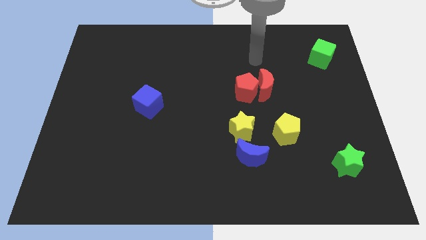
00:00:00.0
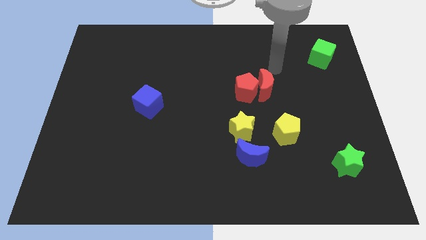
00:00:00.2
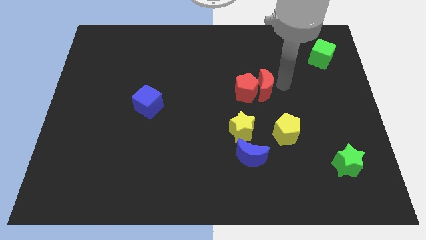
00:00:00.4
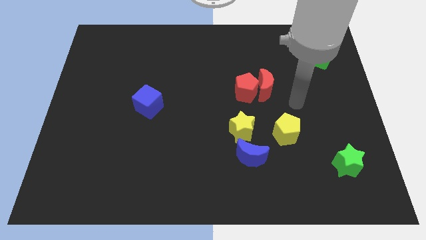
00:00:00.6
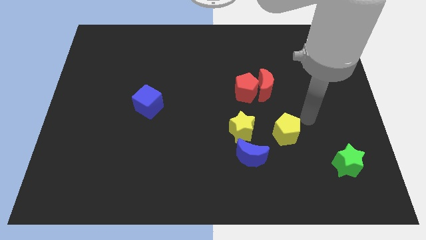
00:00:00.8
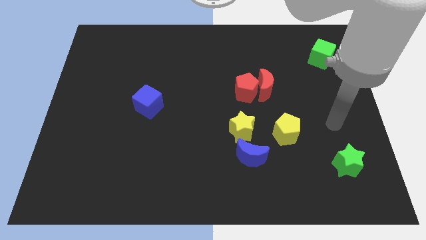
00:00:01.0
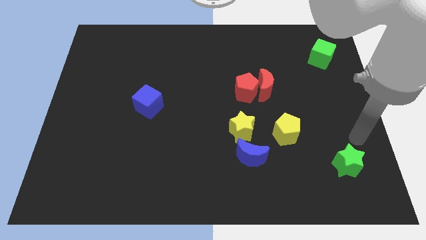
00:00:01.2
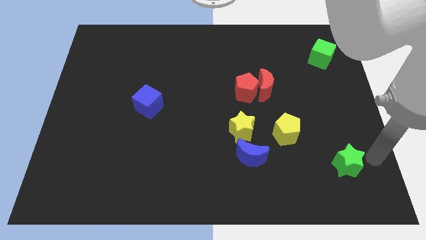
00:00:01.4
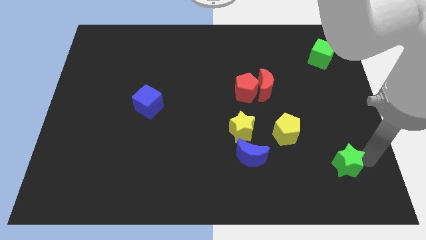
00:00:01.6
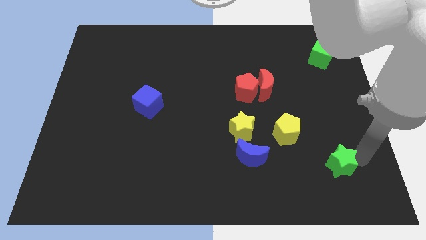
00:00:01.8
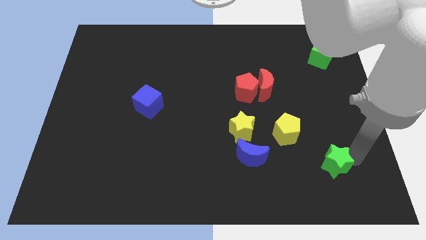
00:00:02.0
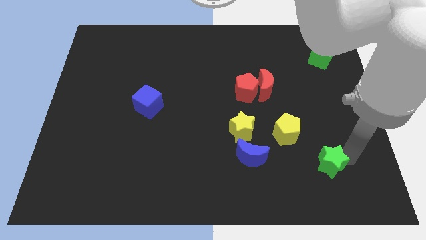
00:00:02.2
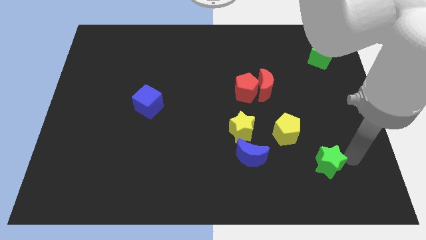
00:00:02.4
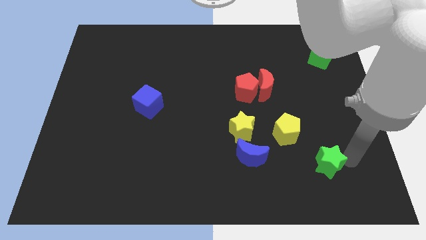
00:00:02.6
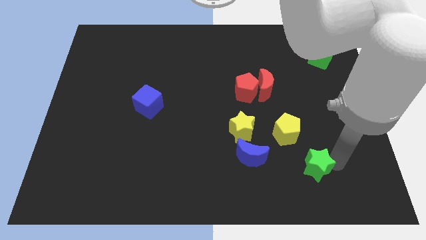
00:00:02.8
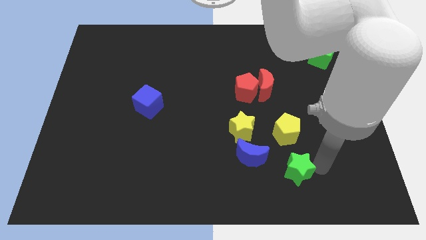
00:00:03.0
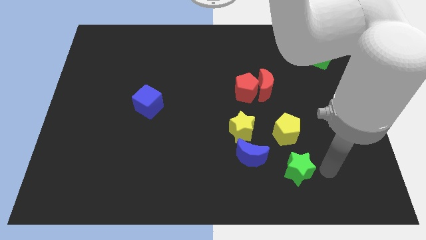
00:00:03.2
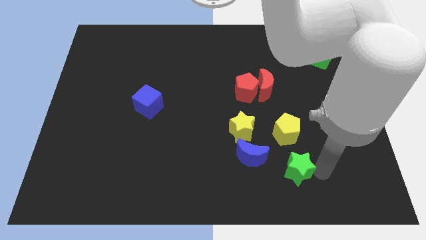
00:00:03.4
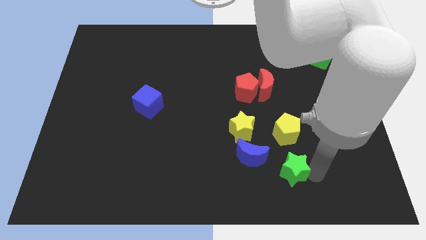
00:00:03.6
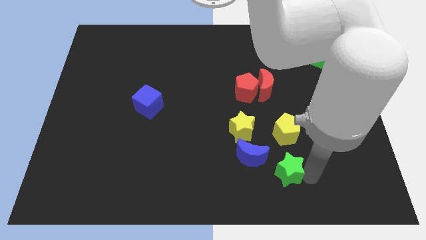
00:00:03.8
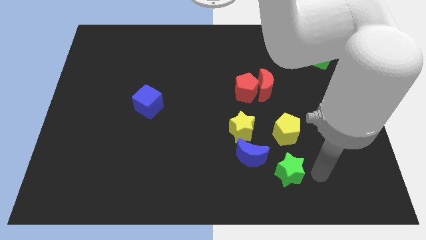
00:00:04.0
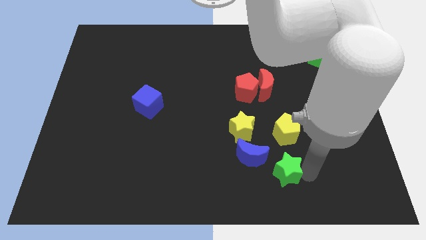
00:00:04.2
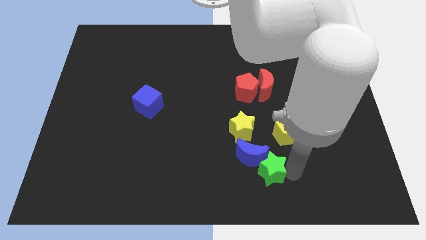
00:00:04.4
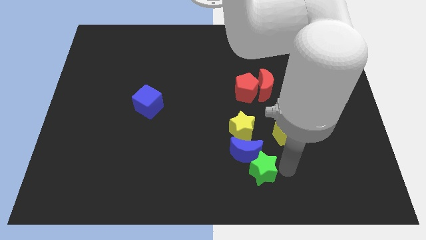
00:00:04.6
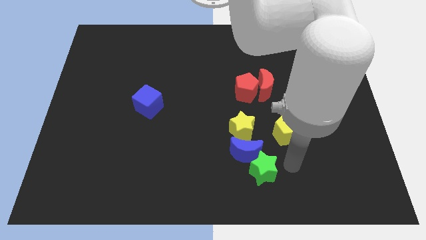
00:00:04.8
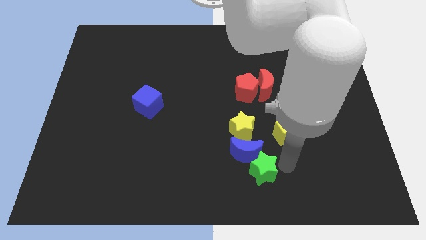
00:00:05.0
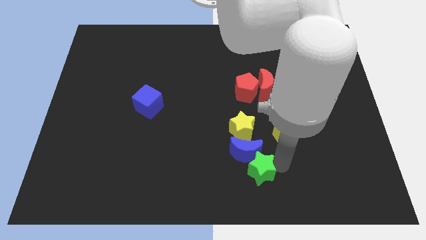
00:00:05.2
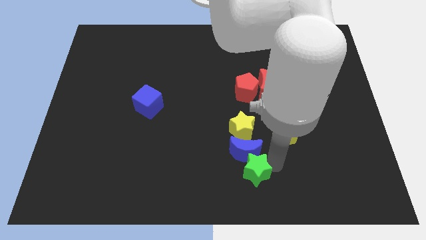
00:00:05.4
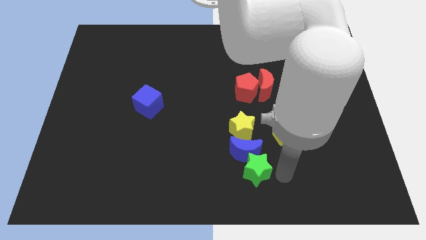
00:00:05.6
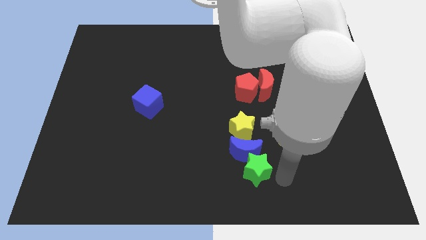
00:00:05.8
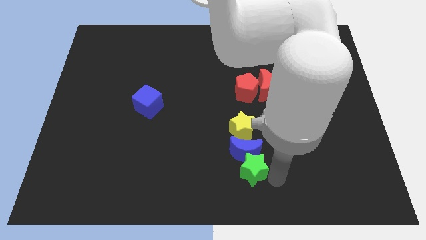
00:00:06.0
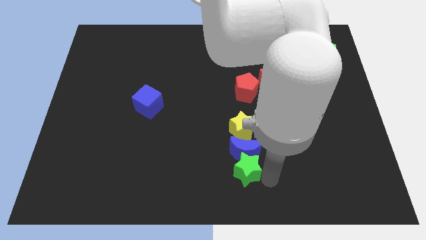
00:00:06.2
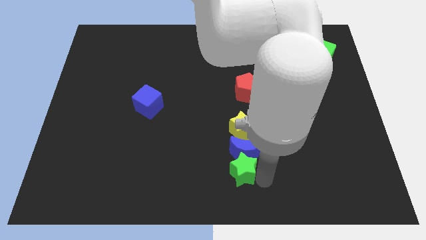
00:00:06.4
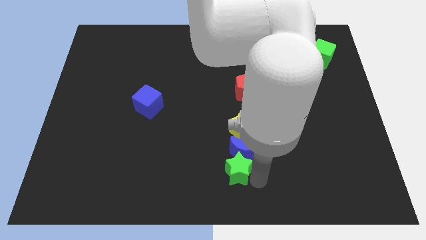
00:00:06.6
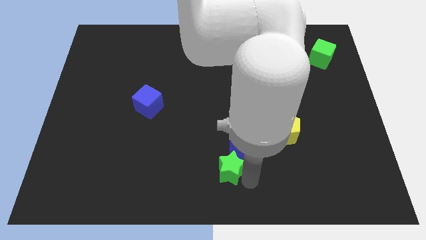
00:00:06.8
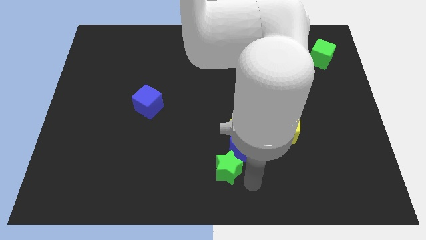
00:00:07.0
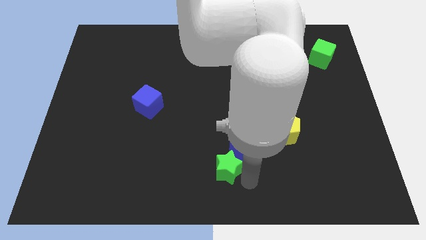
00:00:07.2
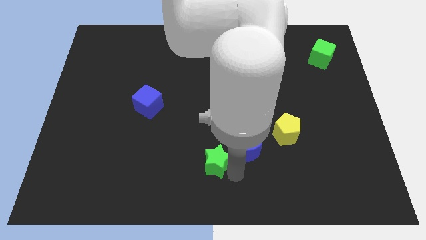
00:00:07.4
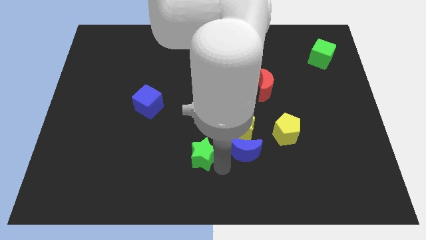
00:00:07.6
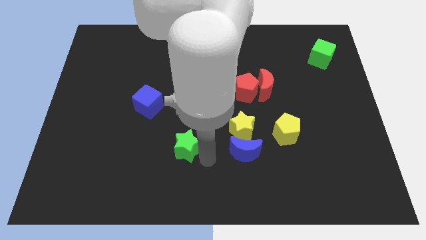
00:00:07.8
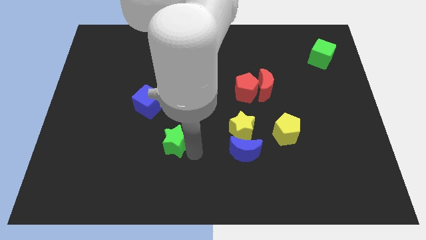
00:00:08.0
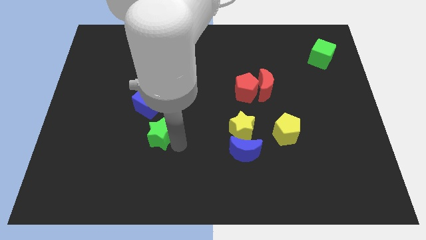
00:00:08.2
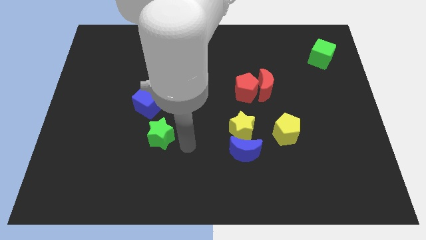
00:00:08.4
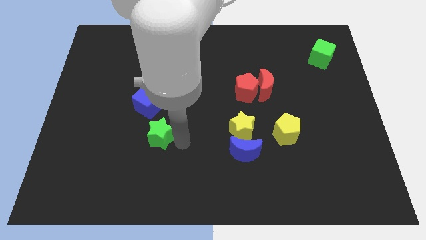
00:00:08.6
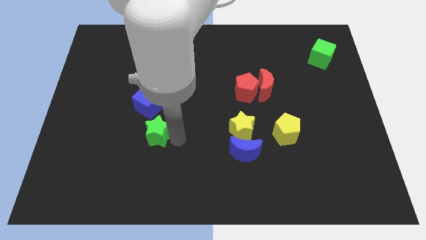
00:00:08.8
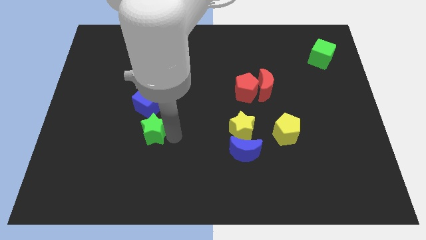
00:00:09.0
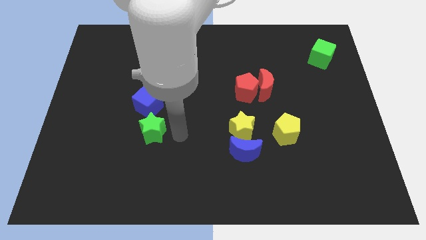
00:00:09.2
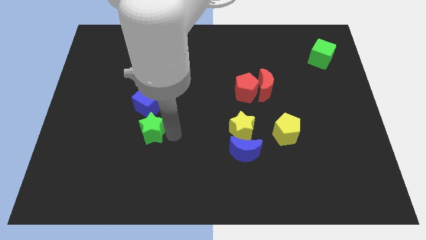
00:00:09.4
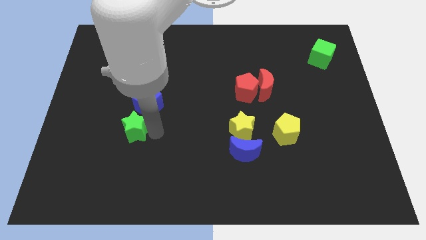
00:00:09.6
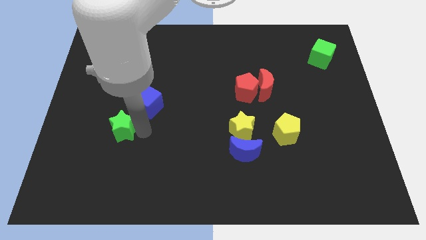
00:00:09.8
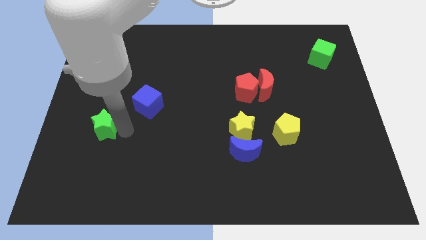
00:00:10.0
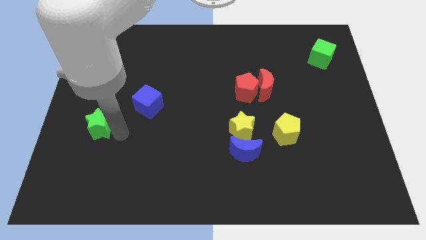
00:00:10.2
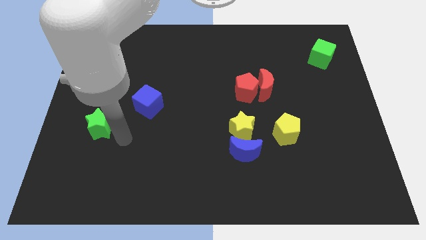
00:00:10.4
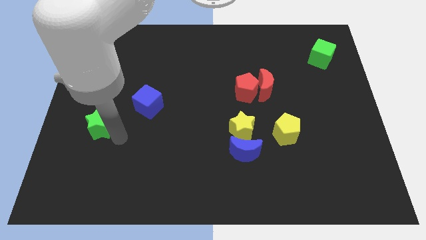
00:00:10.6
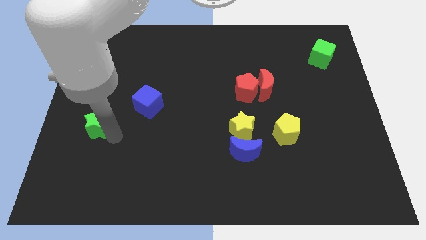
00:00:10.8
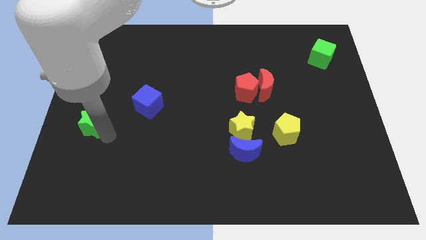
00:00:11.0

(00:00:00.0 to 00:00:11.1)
put the green star to the left side of the board
